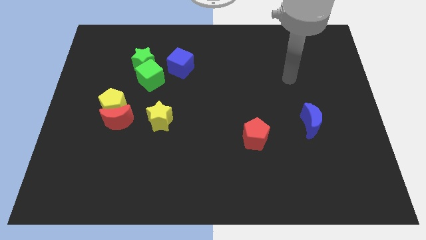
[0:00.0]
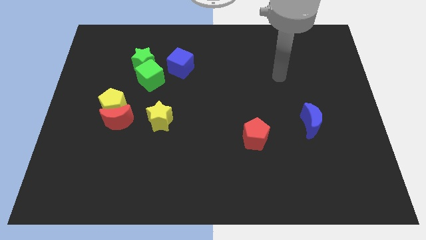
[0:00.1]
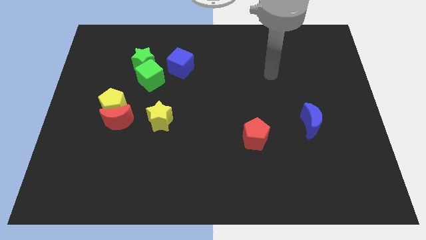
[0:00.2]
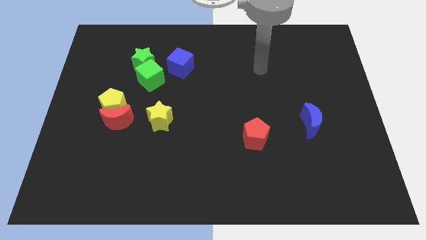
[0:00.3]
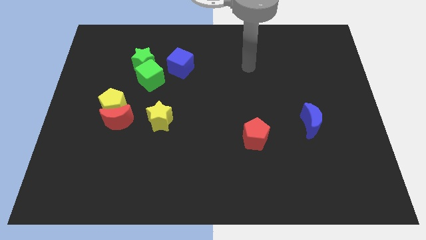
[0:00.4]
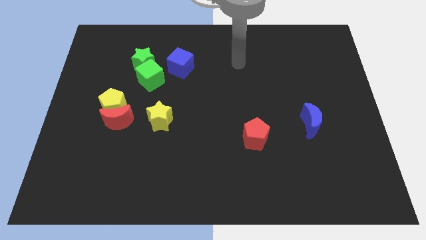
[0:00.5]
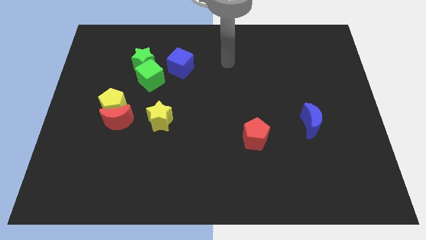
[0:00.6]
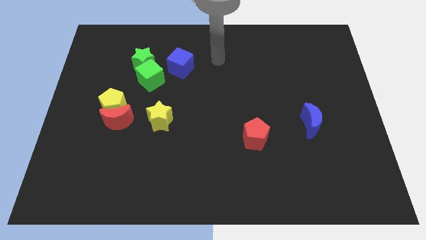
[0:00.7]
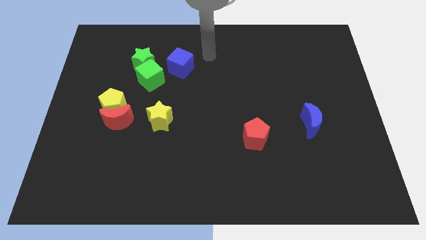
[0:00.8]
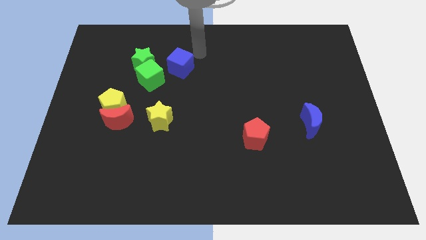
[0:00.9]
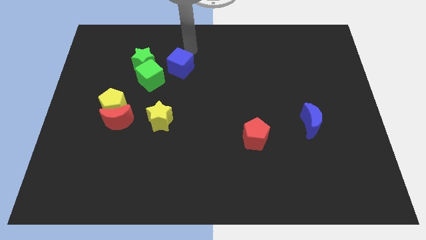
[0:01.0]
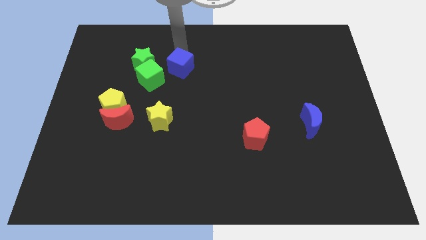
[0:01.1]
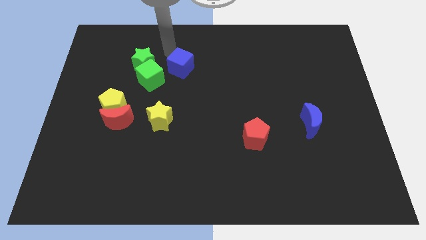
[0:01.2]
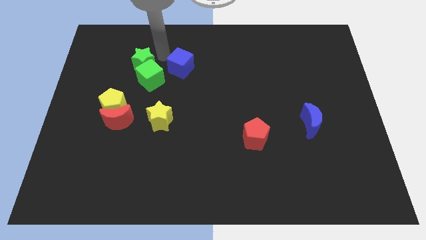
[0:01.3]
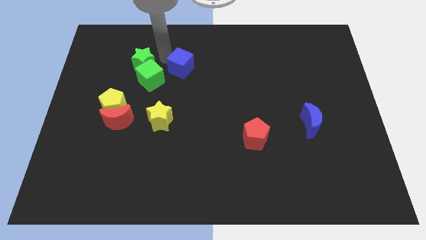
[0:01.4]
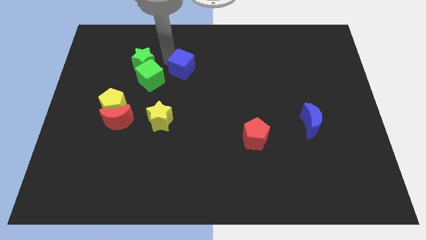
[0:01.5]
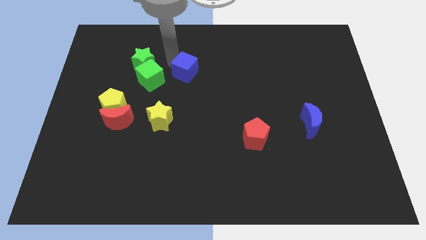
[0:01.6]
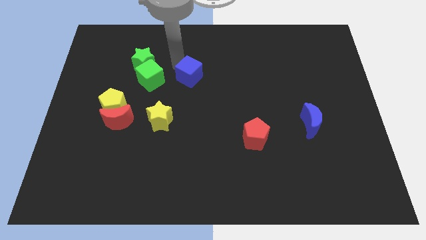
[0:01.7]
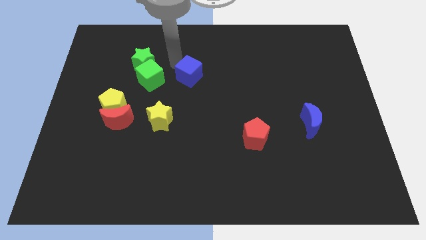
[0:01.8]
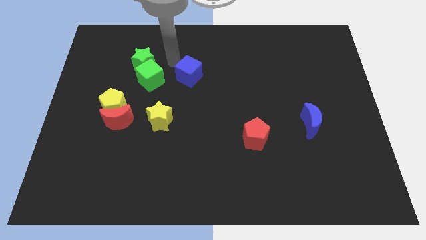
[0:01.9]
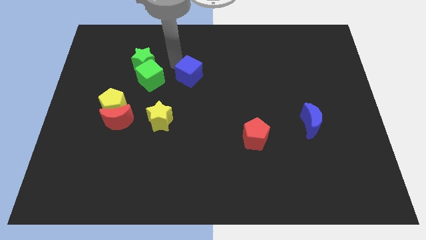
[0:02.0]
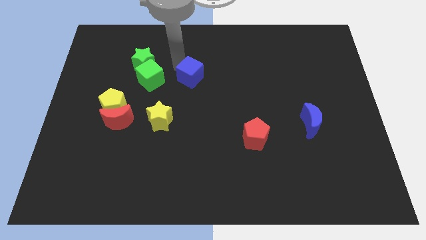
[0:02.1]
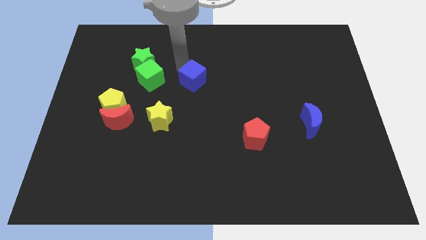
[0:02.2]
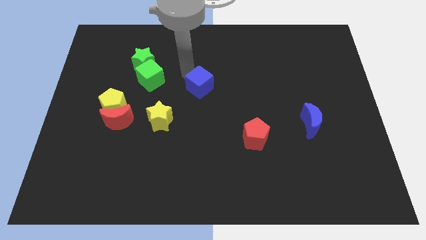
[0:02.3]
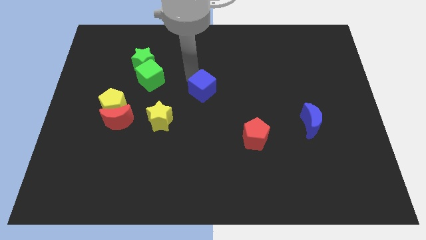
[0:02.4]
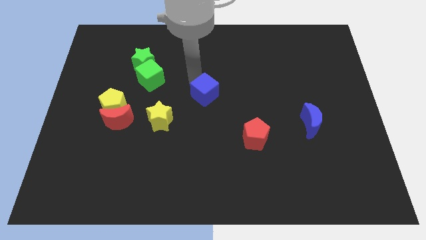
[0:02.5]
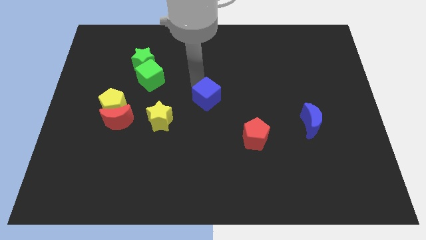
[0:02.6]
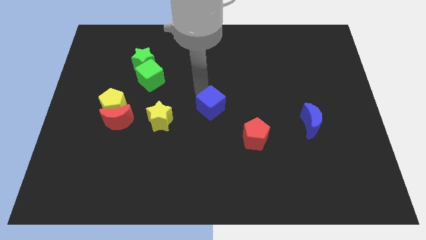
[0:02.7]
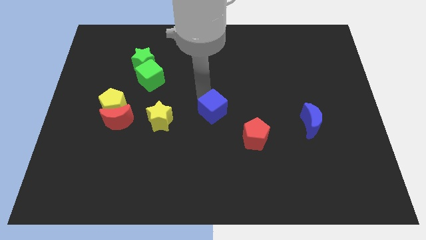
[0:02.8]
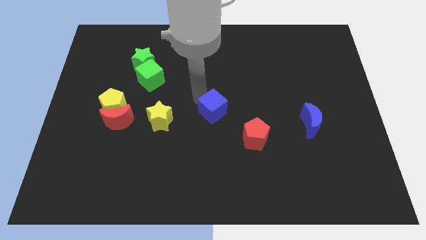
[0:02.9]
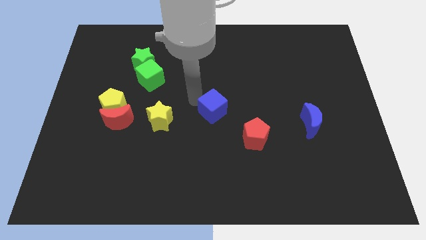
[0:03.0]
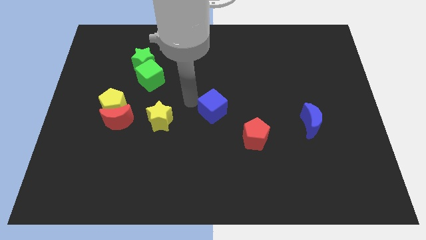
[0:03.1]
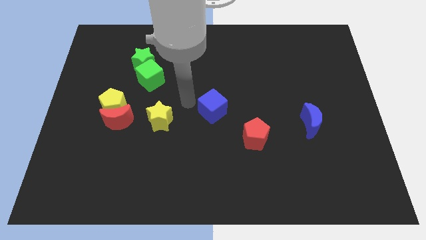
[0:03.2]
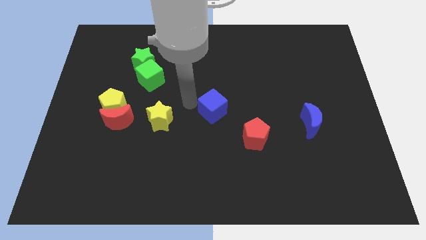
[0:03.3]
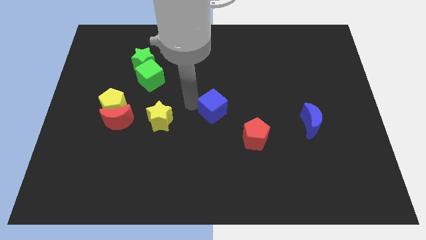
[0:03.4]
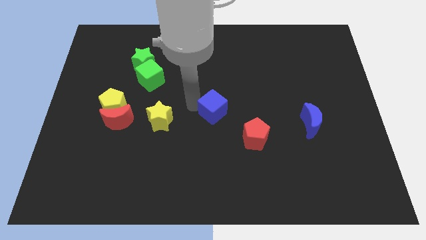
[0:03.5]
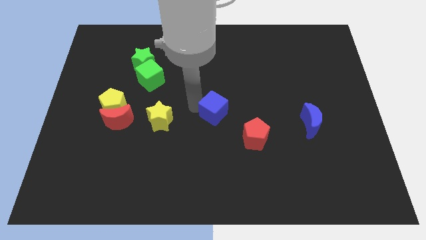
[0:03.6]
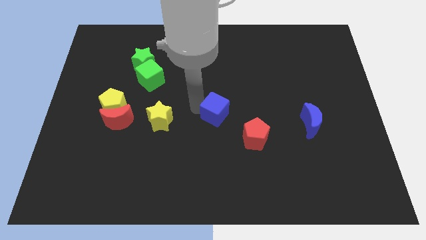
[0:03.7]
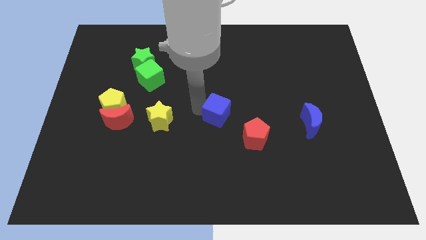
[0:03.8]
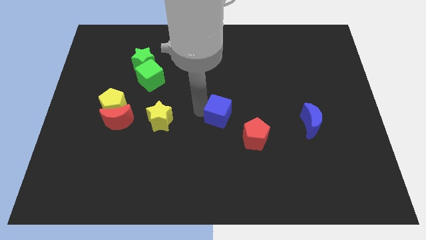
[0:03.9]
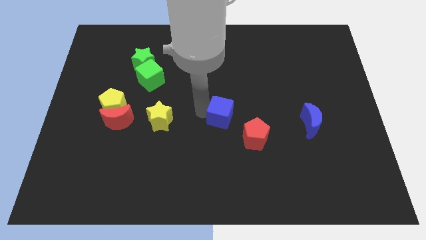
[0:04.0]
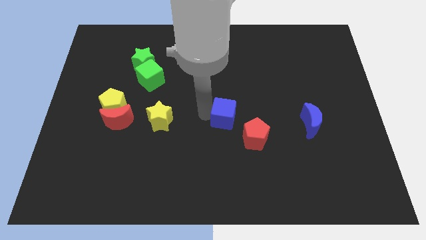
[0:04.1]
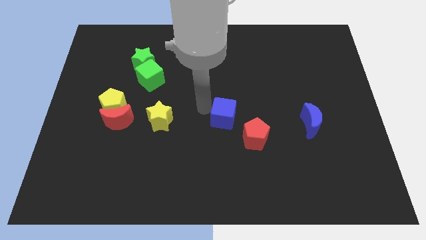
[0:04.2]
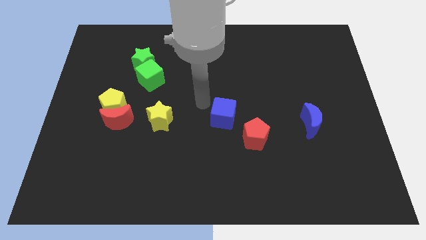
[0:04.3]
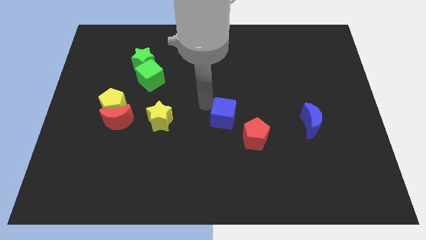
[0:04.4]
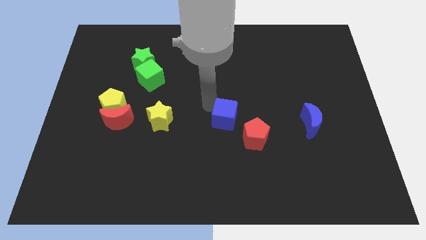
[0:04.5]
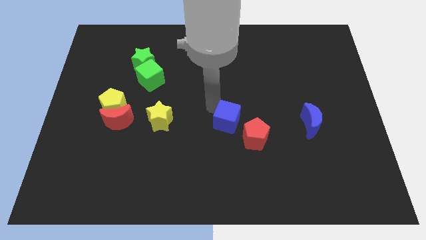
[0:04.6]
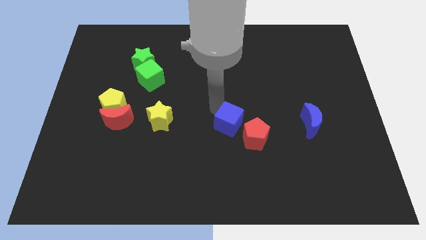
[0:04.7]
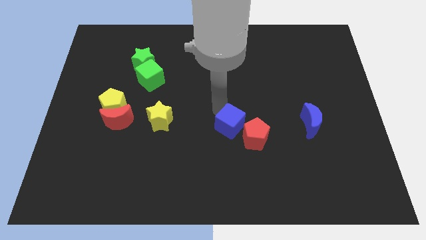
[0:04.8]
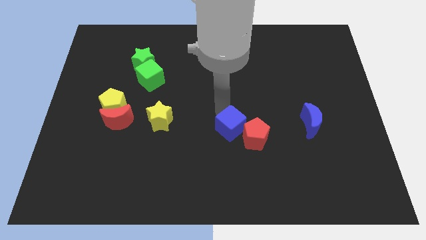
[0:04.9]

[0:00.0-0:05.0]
push the blue cube to the red pentagon

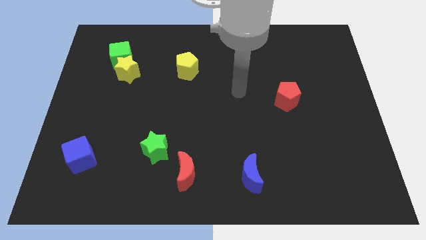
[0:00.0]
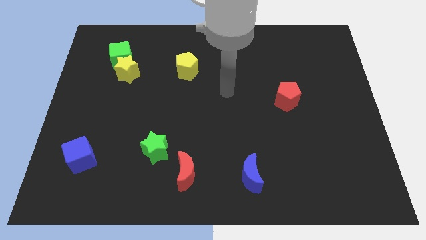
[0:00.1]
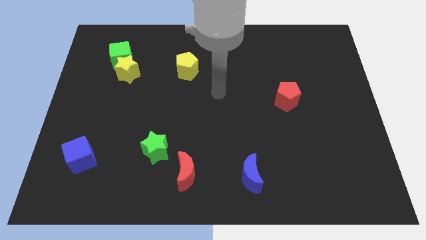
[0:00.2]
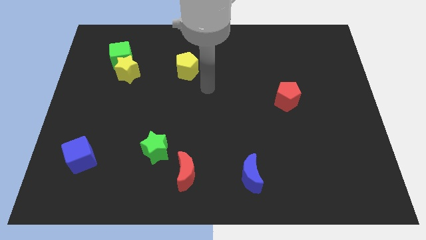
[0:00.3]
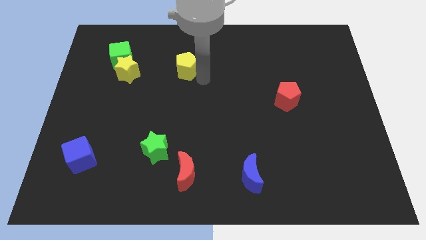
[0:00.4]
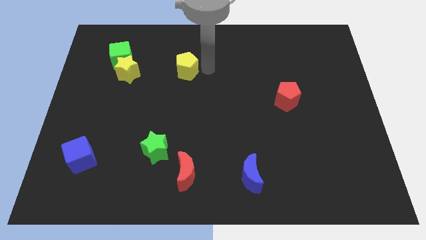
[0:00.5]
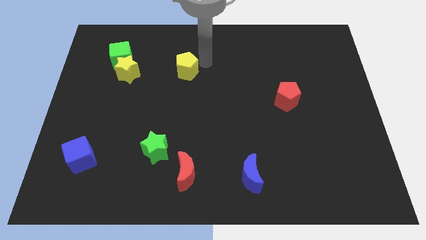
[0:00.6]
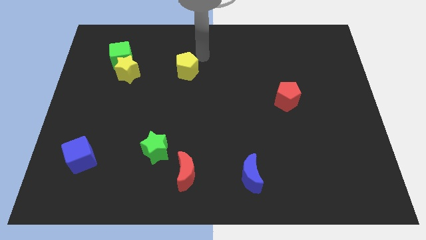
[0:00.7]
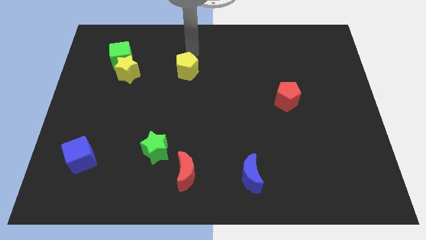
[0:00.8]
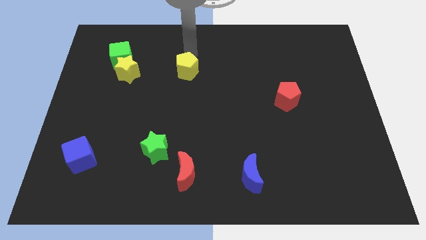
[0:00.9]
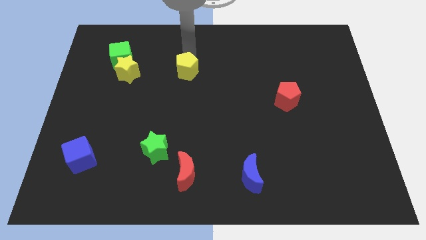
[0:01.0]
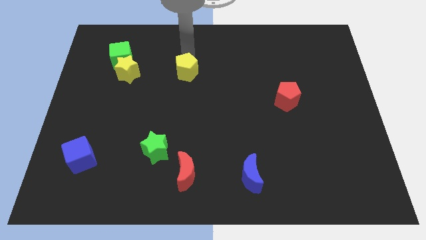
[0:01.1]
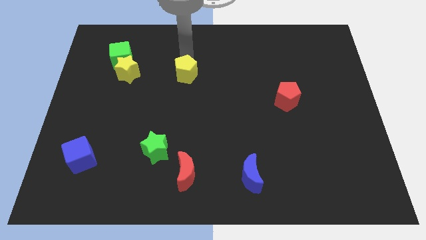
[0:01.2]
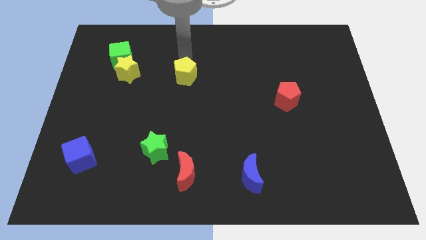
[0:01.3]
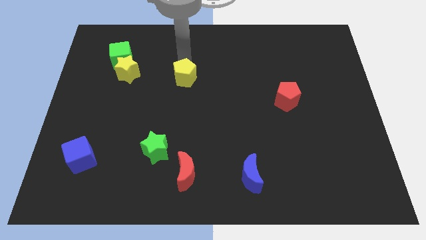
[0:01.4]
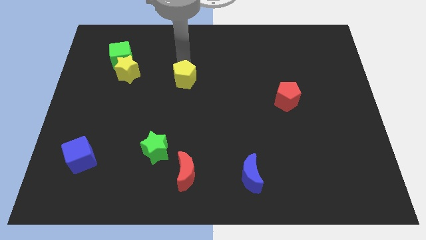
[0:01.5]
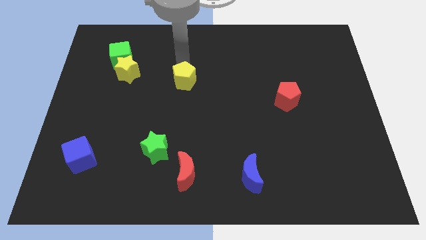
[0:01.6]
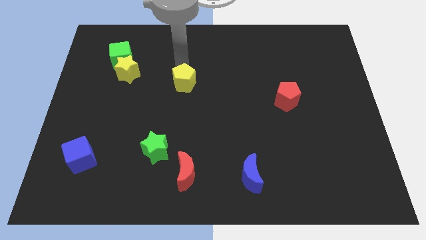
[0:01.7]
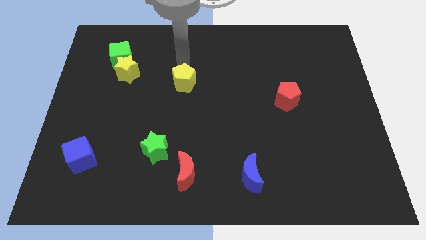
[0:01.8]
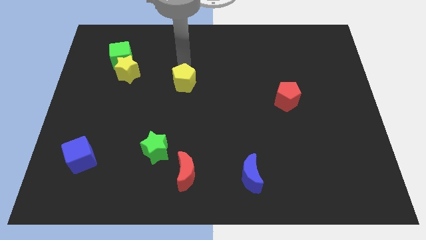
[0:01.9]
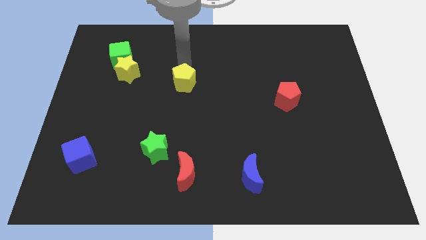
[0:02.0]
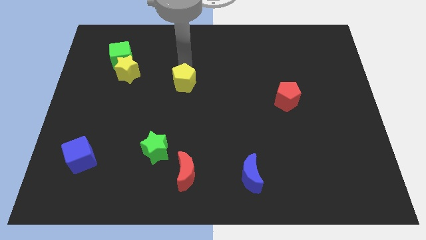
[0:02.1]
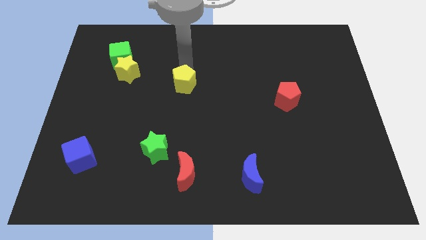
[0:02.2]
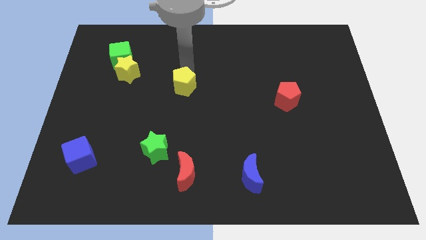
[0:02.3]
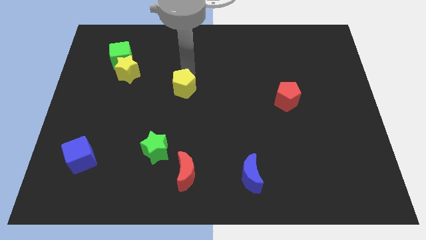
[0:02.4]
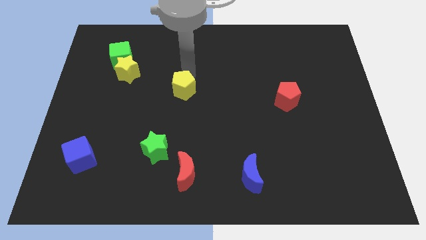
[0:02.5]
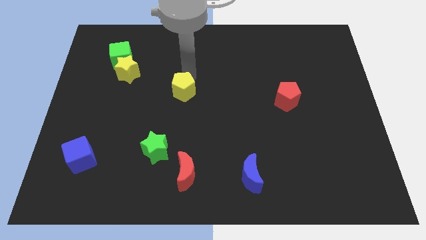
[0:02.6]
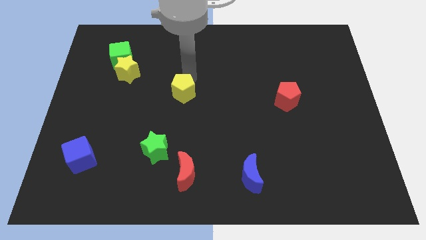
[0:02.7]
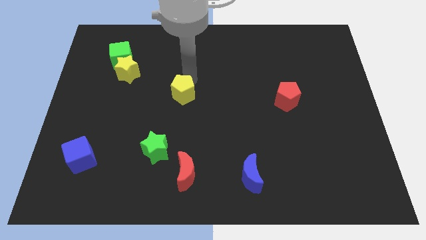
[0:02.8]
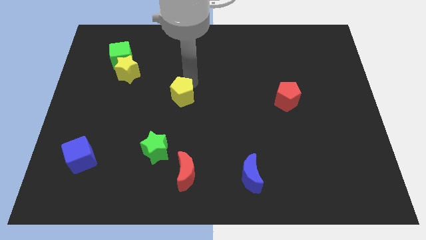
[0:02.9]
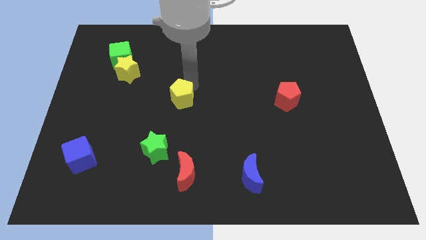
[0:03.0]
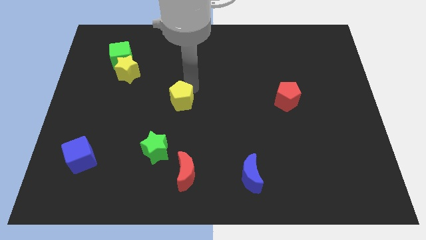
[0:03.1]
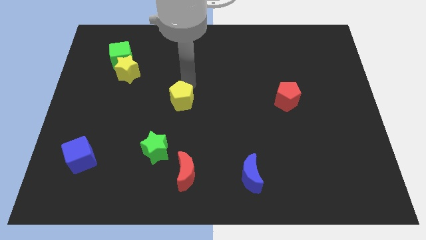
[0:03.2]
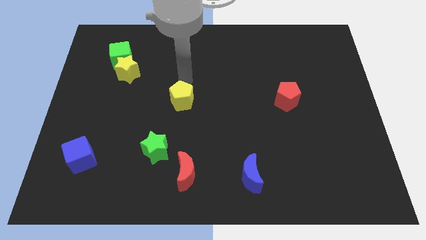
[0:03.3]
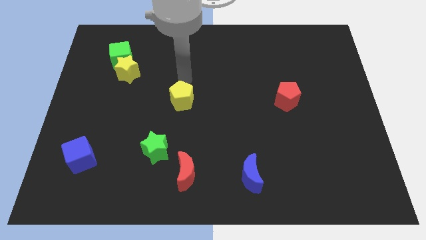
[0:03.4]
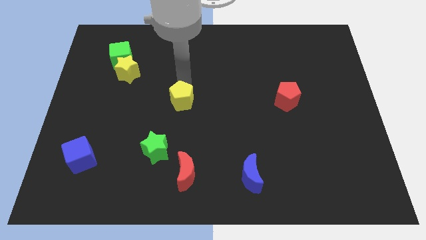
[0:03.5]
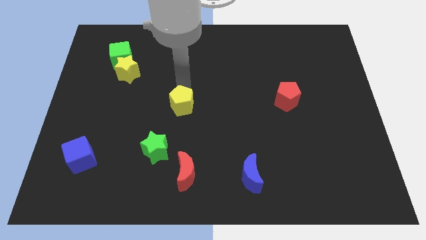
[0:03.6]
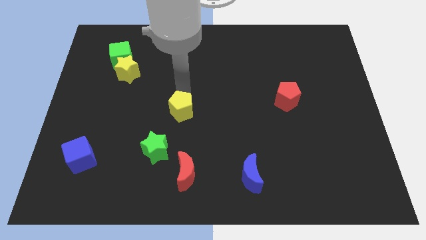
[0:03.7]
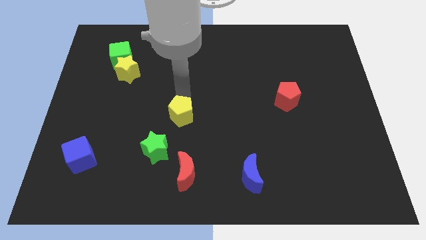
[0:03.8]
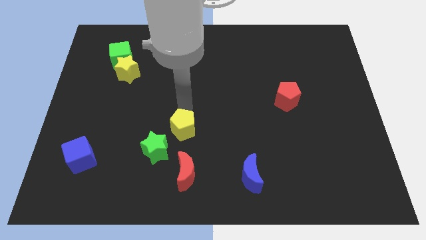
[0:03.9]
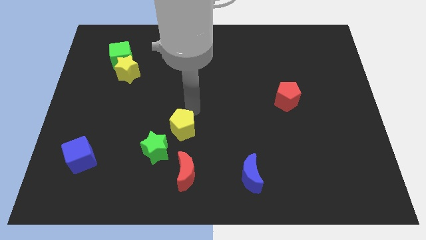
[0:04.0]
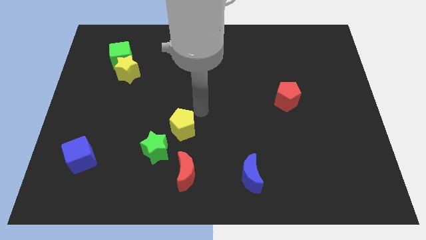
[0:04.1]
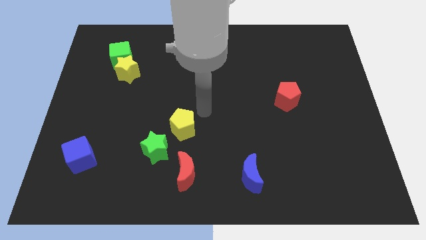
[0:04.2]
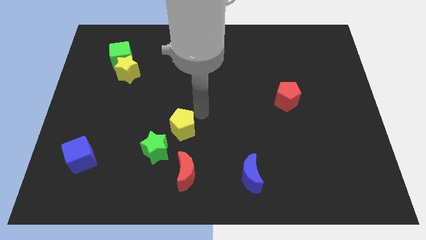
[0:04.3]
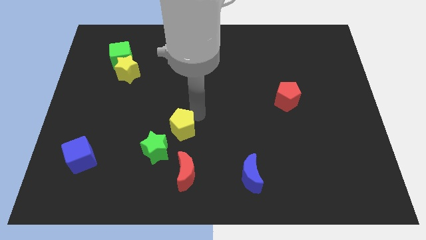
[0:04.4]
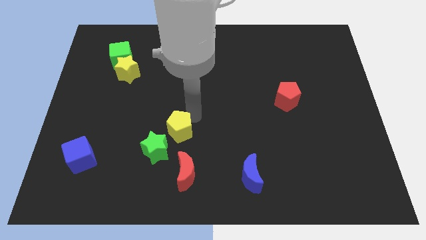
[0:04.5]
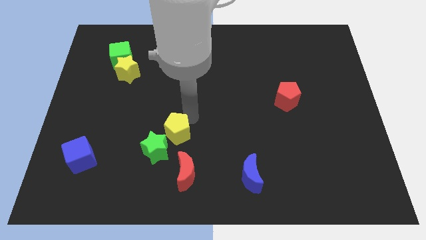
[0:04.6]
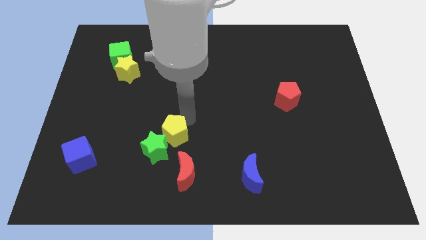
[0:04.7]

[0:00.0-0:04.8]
move the yellow pentagon to the green star
